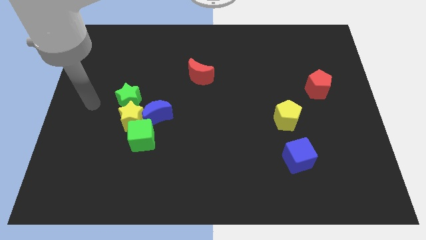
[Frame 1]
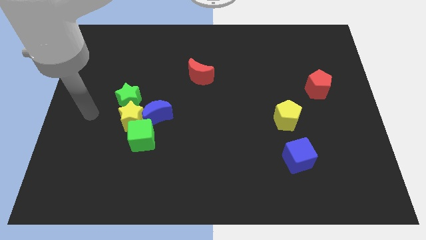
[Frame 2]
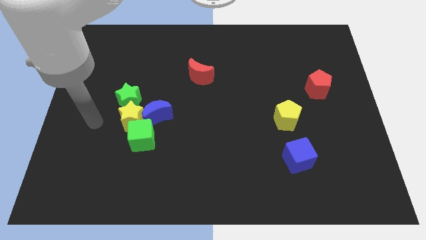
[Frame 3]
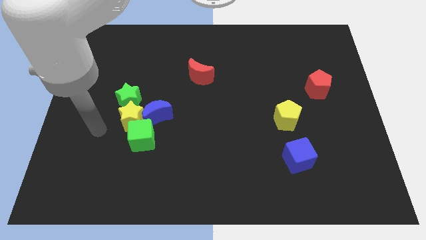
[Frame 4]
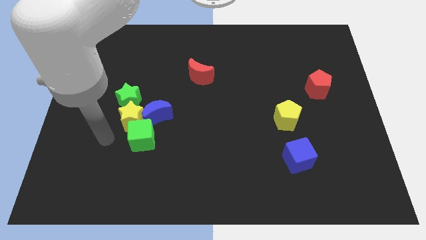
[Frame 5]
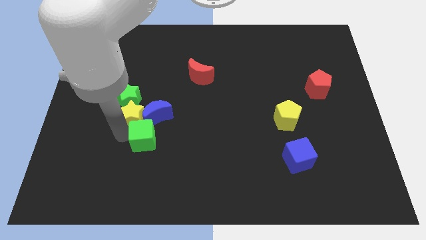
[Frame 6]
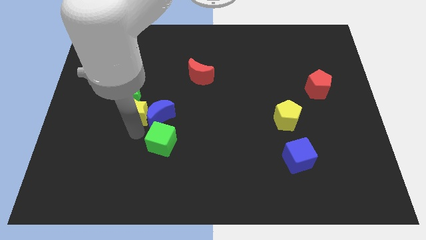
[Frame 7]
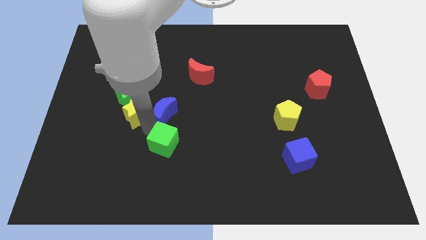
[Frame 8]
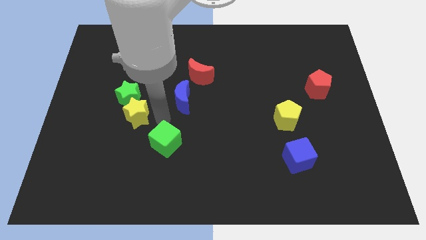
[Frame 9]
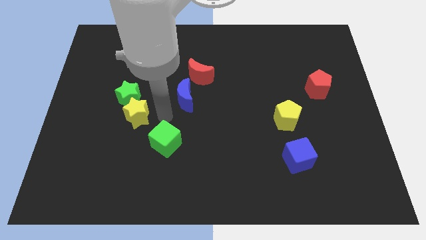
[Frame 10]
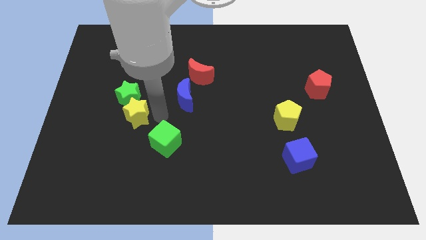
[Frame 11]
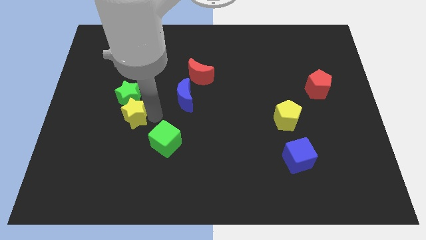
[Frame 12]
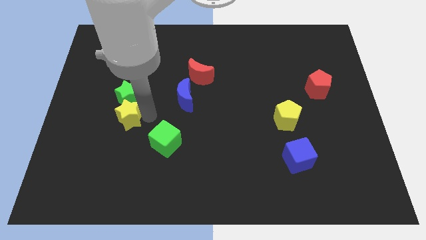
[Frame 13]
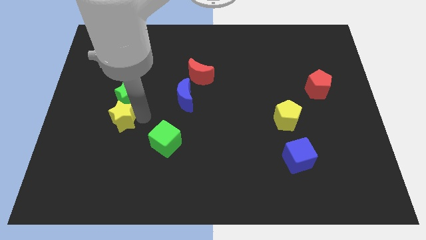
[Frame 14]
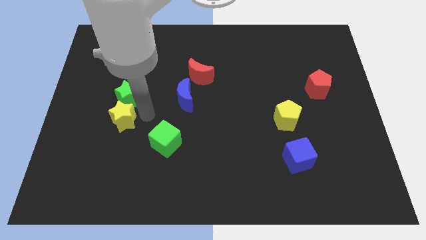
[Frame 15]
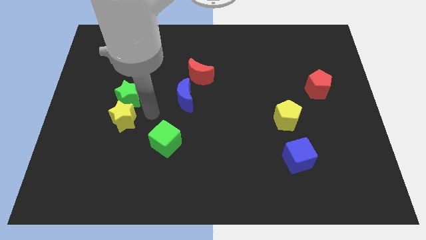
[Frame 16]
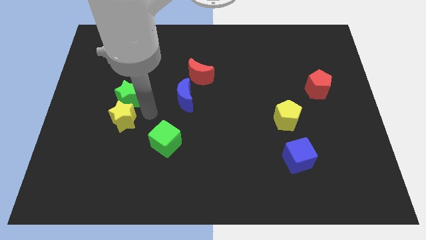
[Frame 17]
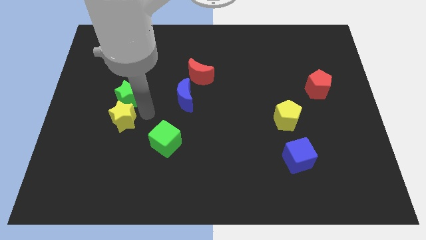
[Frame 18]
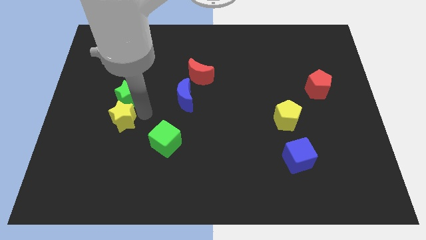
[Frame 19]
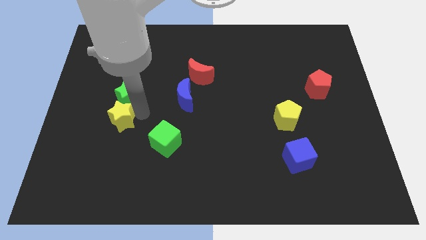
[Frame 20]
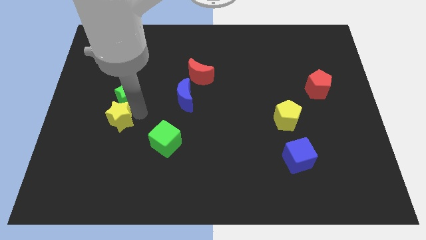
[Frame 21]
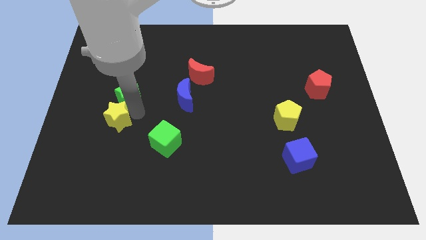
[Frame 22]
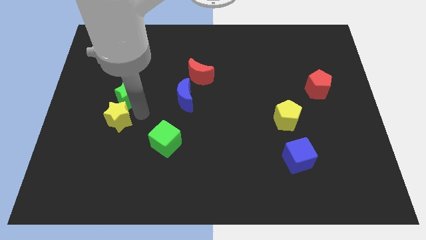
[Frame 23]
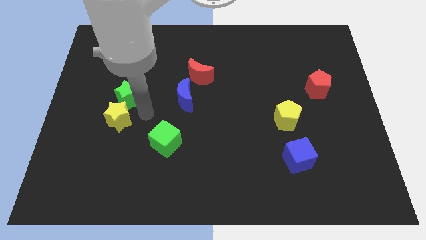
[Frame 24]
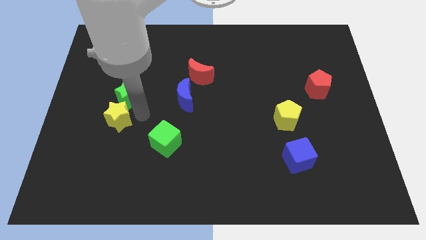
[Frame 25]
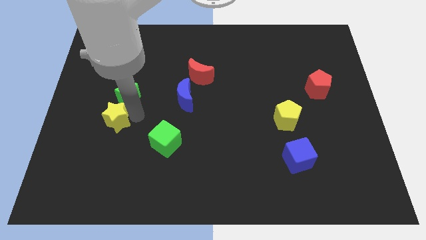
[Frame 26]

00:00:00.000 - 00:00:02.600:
move the yellow star away from the group

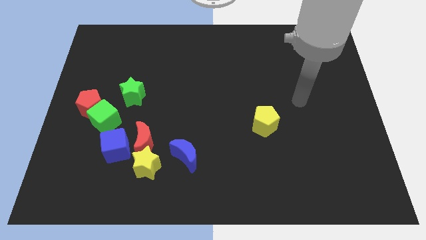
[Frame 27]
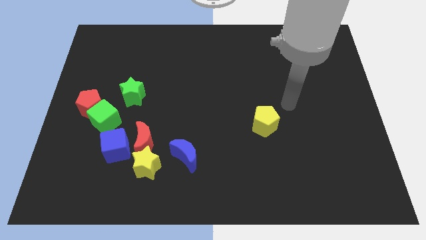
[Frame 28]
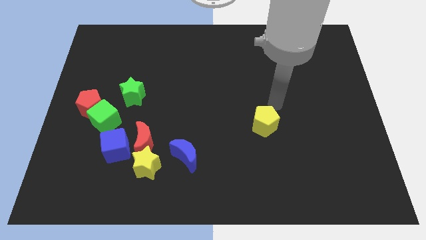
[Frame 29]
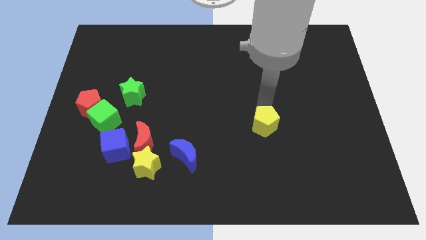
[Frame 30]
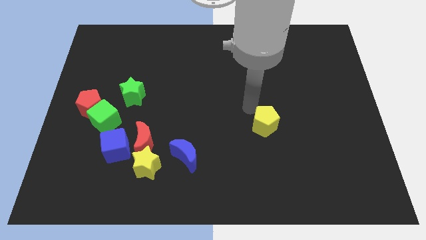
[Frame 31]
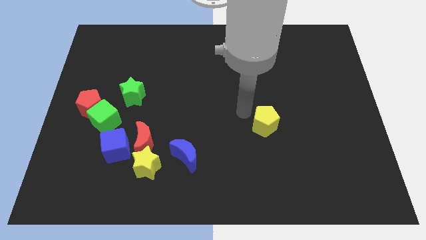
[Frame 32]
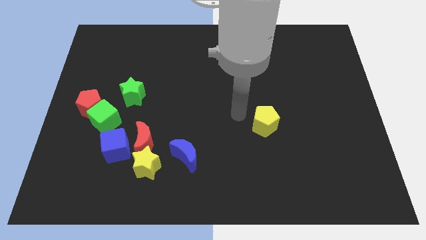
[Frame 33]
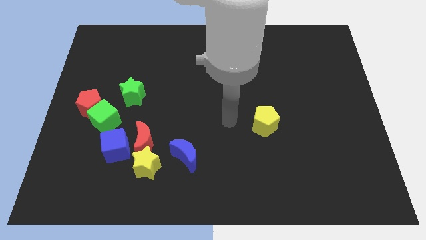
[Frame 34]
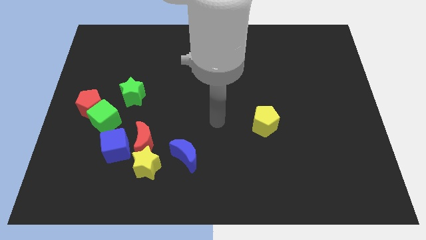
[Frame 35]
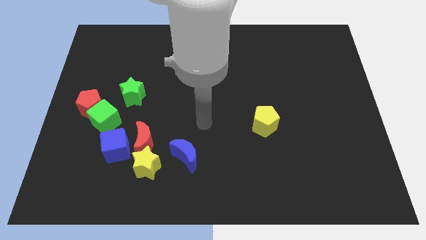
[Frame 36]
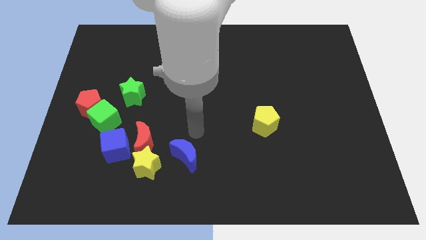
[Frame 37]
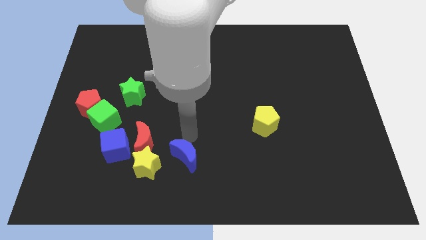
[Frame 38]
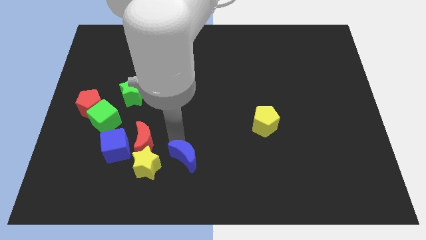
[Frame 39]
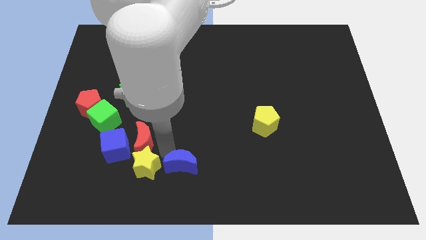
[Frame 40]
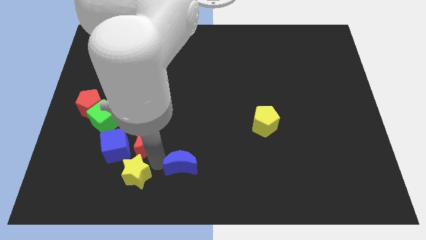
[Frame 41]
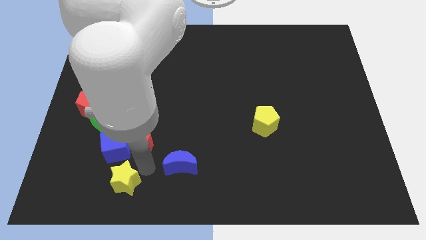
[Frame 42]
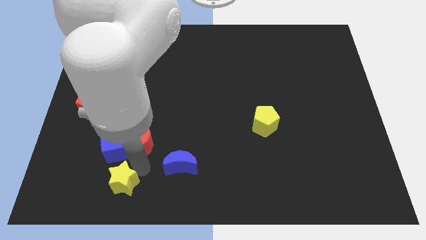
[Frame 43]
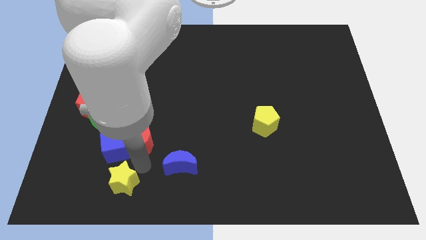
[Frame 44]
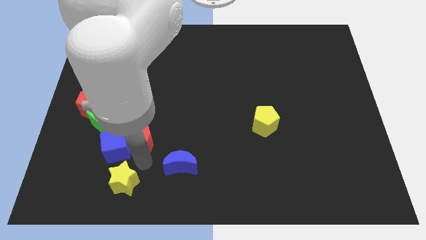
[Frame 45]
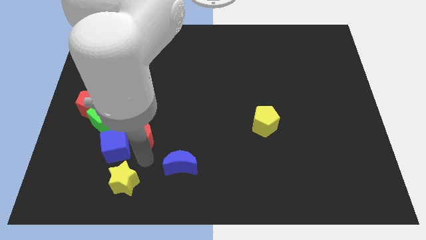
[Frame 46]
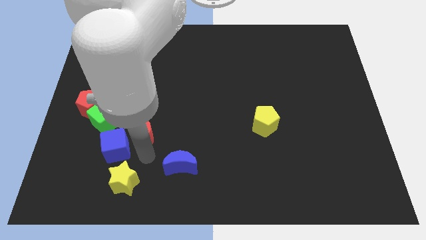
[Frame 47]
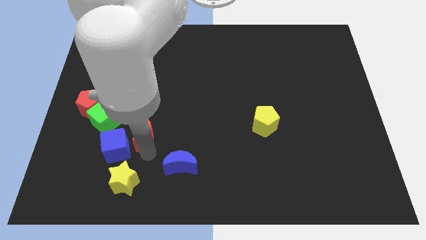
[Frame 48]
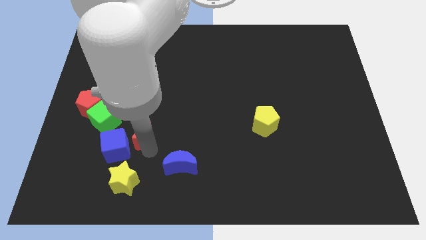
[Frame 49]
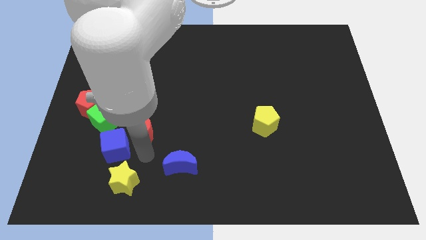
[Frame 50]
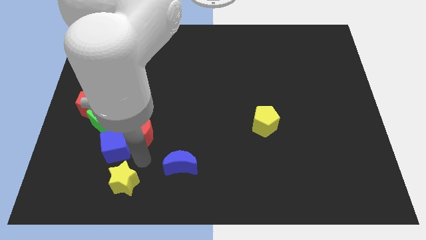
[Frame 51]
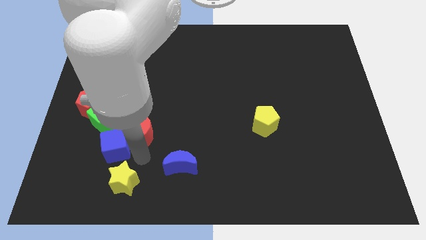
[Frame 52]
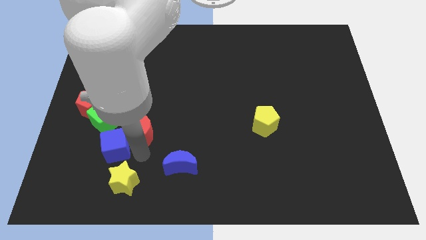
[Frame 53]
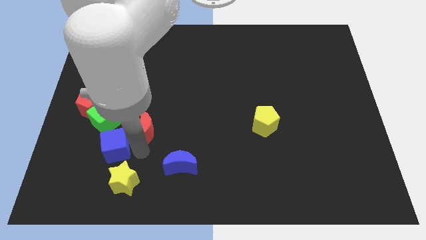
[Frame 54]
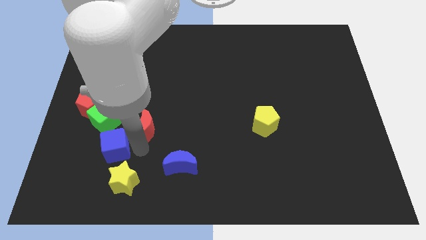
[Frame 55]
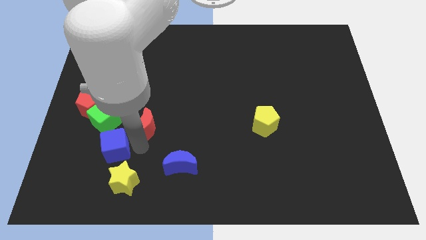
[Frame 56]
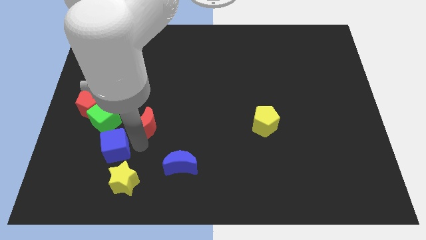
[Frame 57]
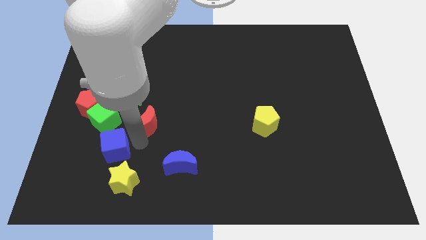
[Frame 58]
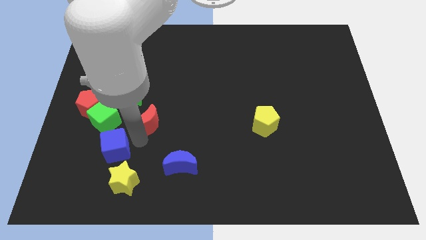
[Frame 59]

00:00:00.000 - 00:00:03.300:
move the red moon away from the yellow star, blue cube, and blue moon

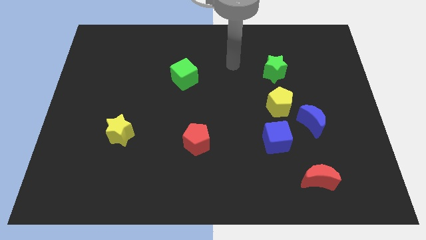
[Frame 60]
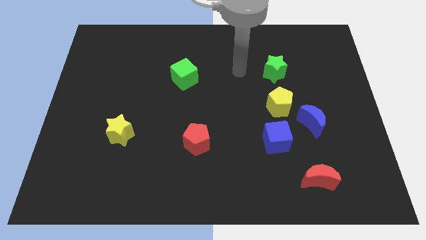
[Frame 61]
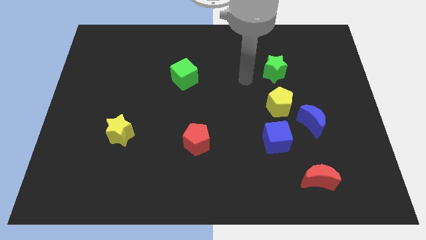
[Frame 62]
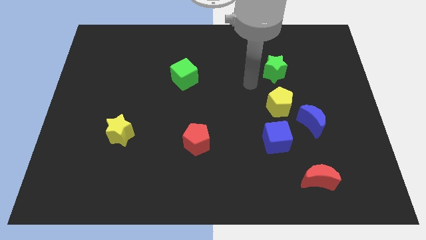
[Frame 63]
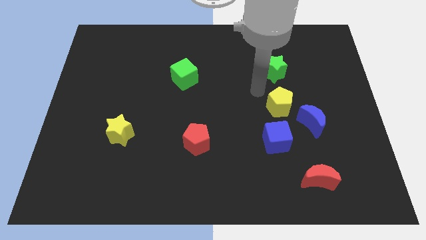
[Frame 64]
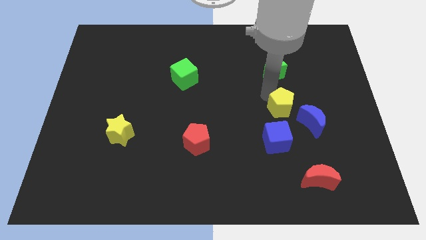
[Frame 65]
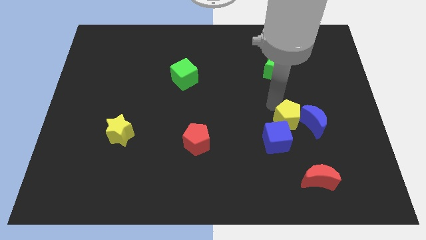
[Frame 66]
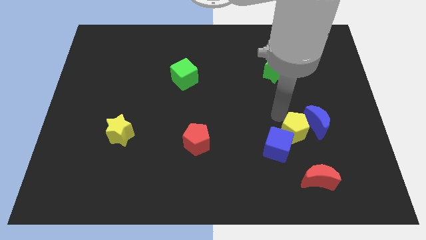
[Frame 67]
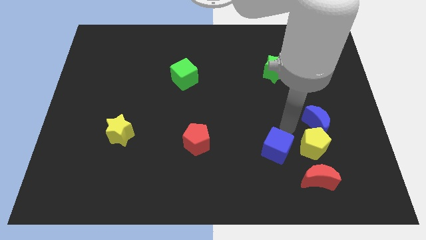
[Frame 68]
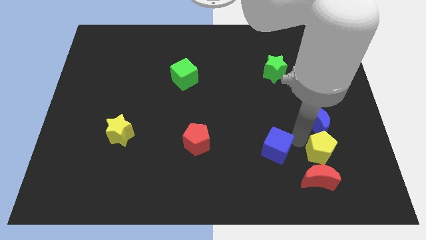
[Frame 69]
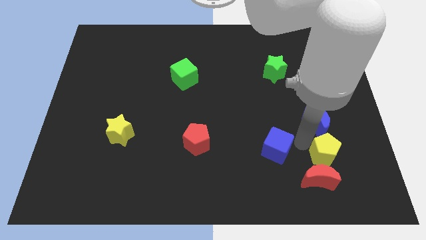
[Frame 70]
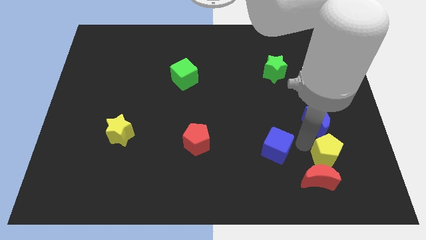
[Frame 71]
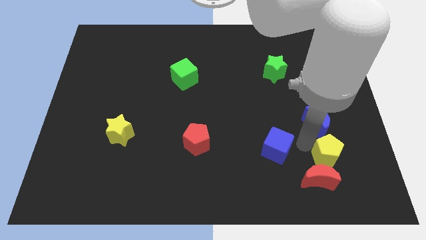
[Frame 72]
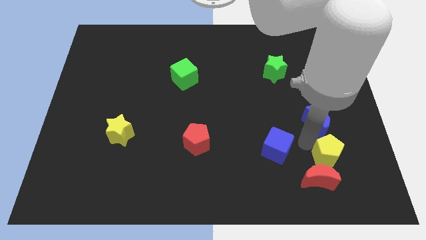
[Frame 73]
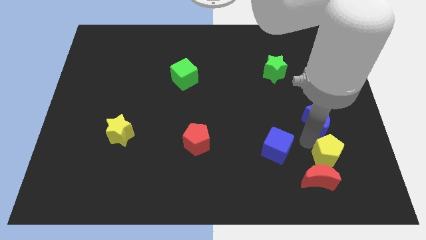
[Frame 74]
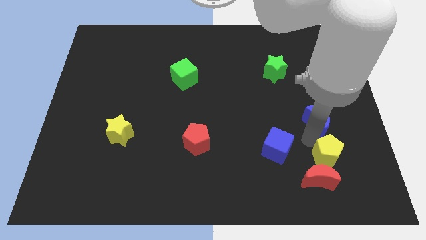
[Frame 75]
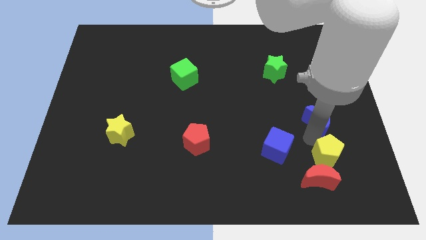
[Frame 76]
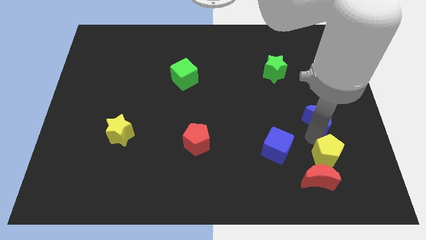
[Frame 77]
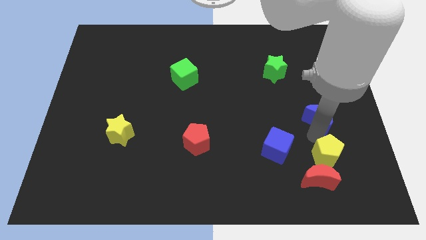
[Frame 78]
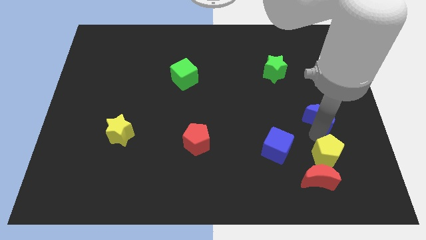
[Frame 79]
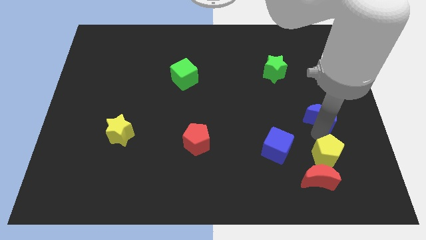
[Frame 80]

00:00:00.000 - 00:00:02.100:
pull the blue moon apart from the yellow pentagon and blue cube

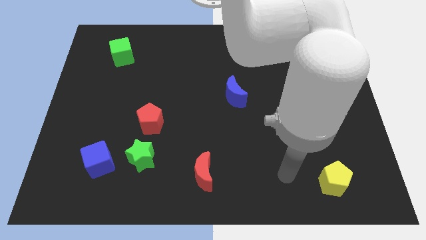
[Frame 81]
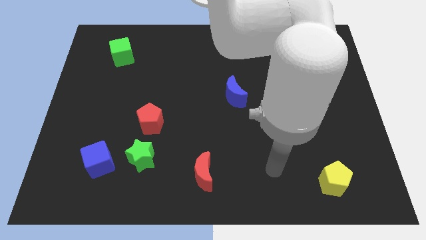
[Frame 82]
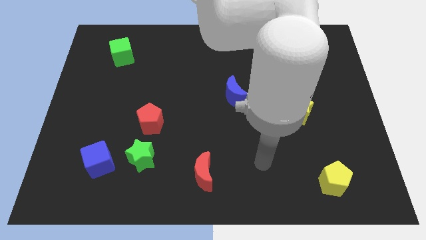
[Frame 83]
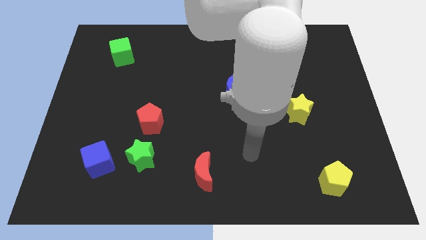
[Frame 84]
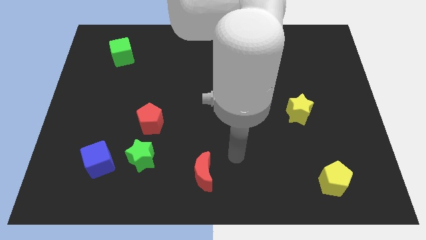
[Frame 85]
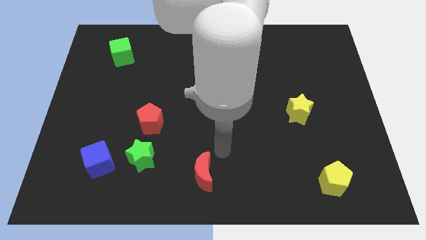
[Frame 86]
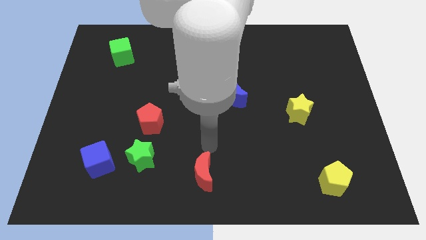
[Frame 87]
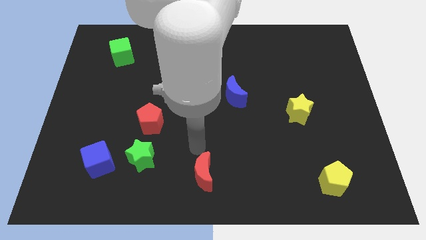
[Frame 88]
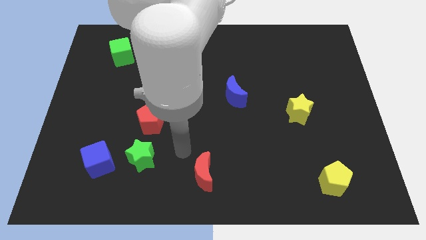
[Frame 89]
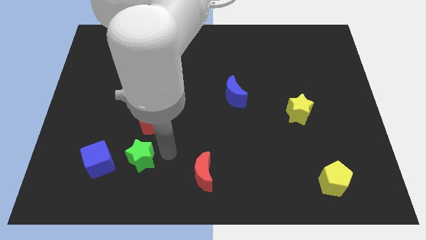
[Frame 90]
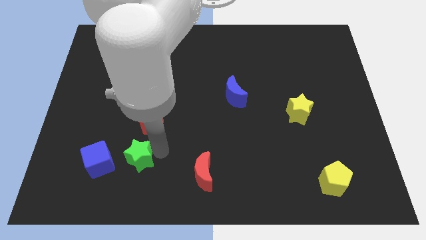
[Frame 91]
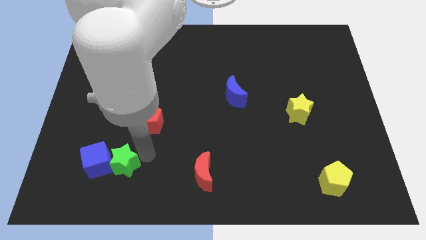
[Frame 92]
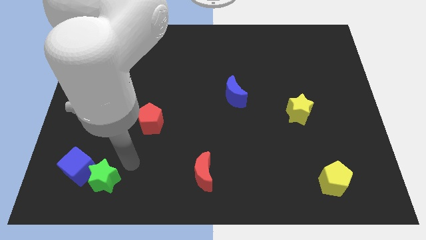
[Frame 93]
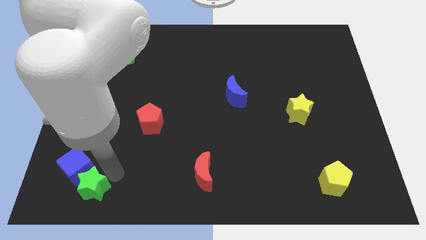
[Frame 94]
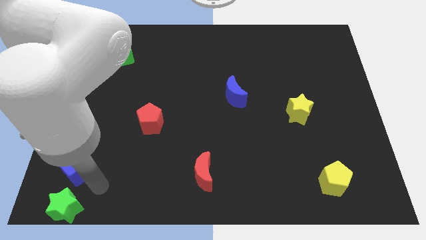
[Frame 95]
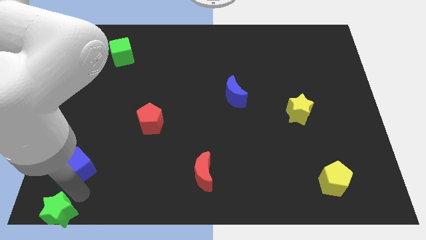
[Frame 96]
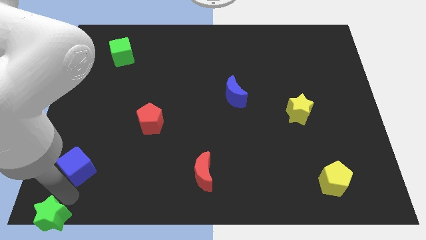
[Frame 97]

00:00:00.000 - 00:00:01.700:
separate the blue cube from the green star
